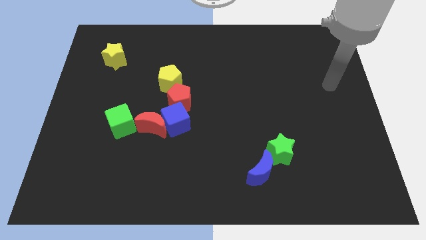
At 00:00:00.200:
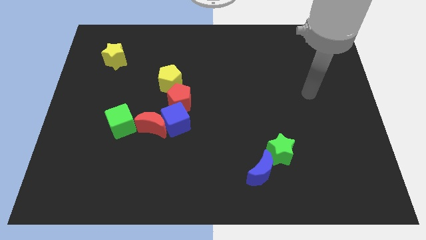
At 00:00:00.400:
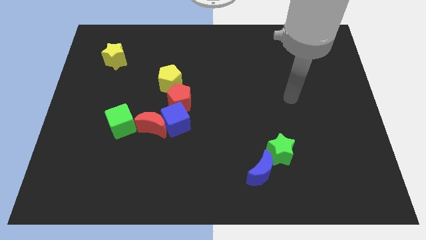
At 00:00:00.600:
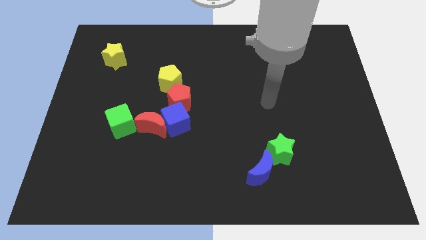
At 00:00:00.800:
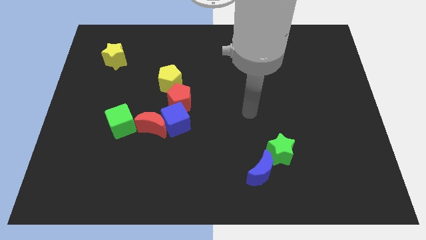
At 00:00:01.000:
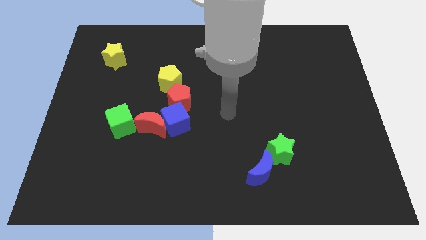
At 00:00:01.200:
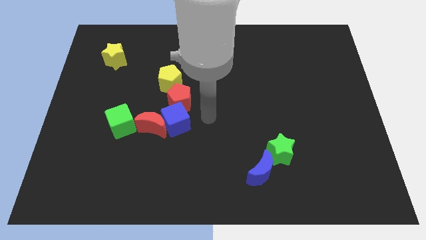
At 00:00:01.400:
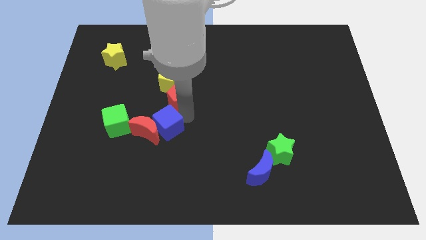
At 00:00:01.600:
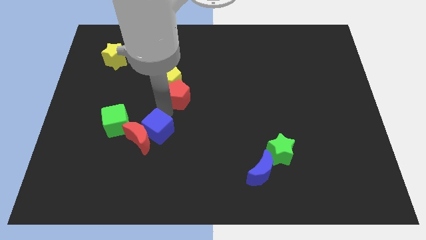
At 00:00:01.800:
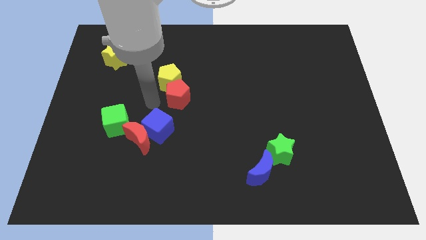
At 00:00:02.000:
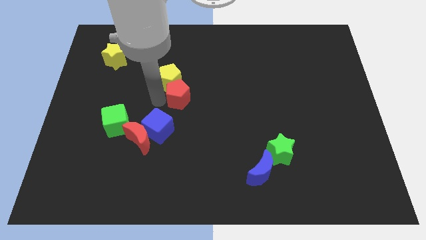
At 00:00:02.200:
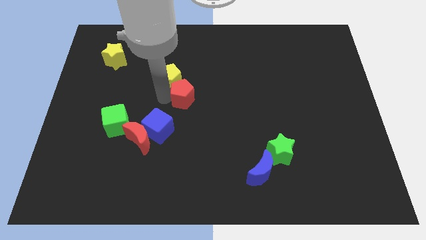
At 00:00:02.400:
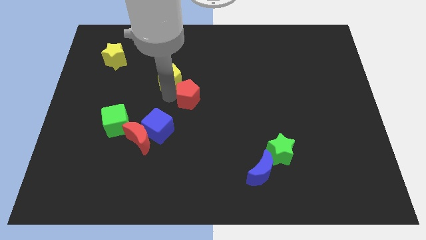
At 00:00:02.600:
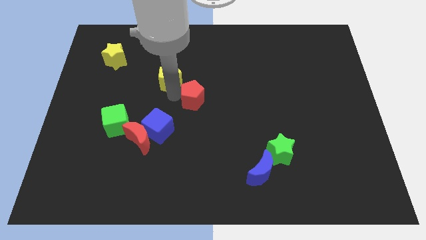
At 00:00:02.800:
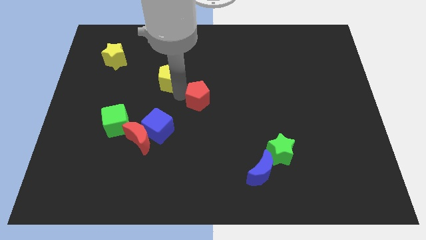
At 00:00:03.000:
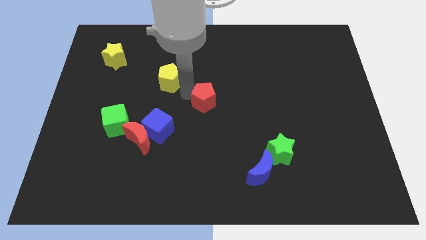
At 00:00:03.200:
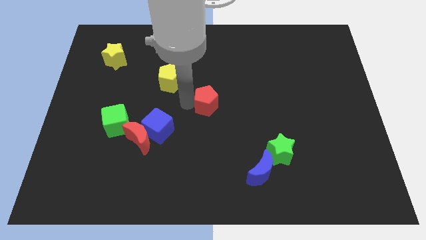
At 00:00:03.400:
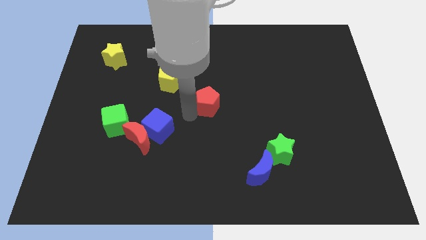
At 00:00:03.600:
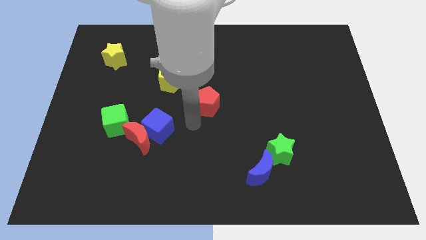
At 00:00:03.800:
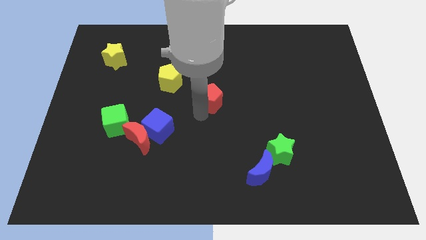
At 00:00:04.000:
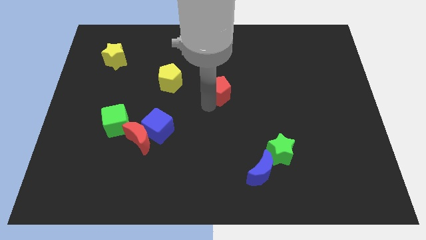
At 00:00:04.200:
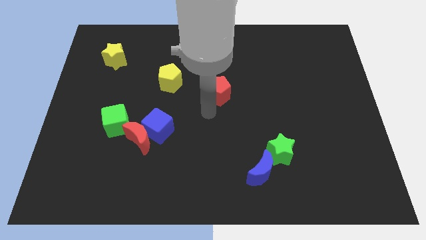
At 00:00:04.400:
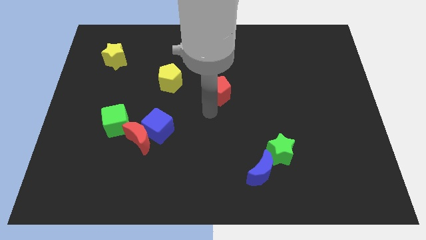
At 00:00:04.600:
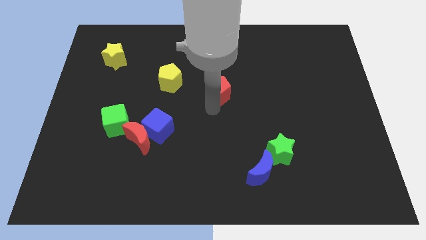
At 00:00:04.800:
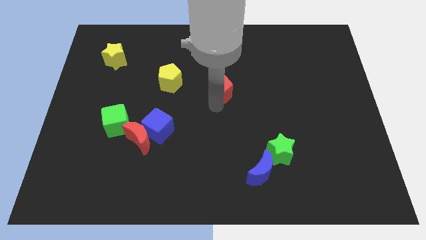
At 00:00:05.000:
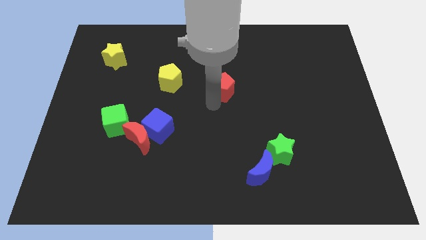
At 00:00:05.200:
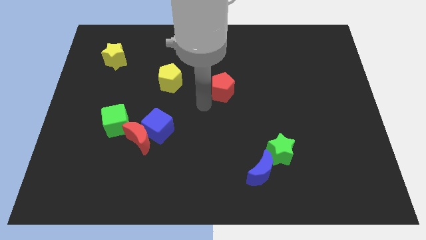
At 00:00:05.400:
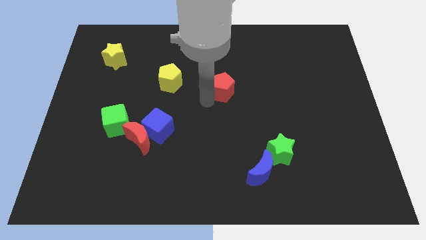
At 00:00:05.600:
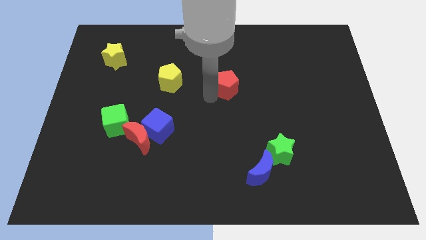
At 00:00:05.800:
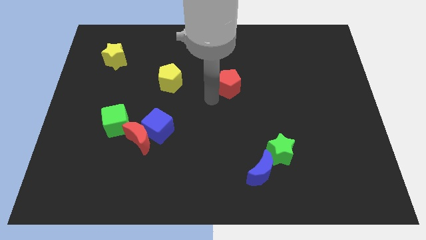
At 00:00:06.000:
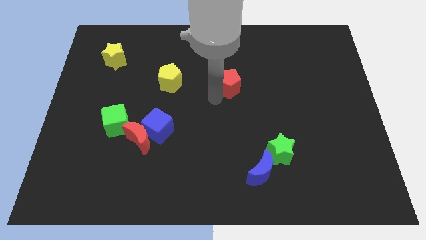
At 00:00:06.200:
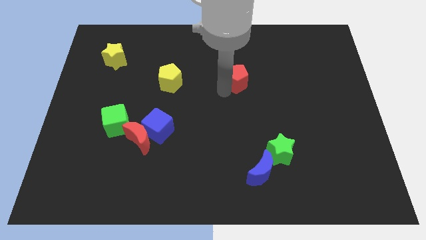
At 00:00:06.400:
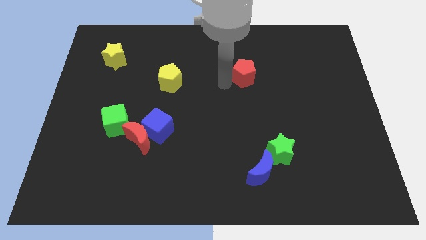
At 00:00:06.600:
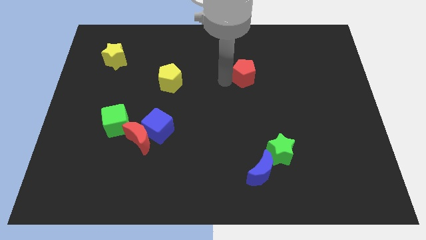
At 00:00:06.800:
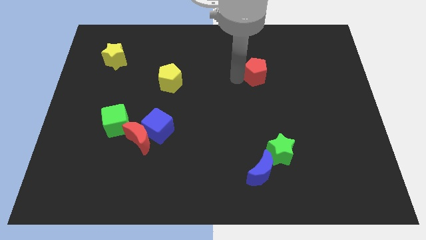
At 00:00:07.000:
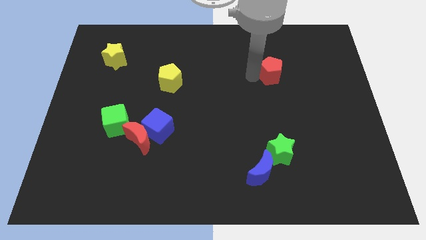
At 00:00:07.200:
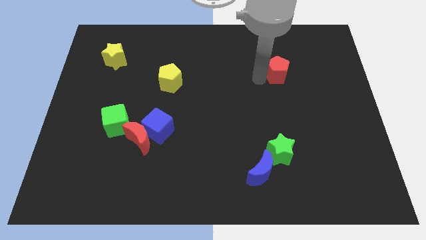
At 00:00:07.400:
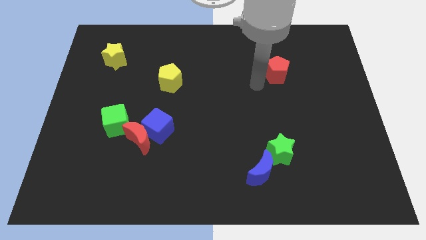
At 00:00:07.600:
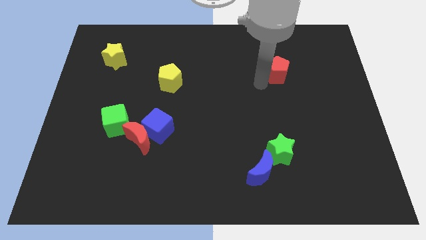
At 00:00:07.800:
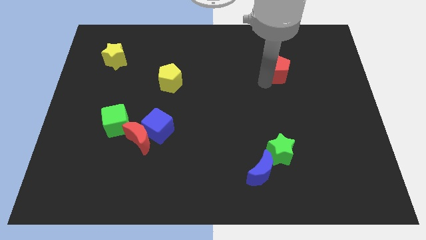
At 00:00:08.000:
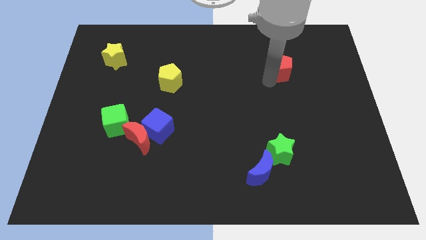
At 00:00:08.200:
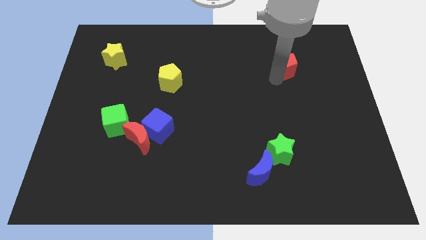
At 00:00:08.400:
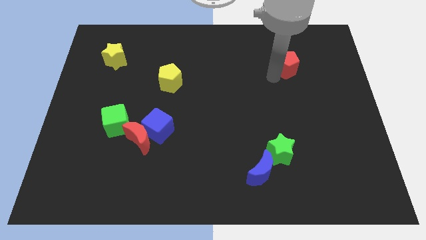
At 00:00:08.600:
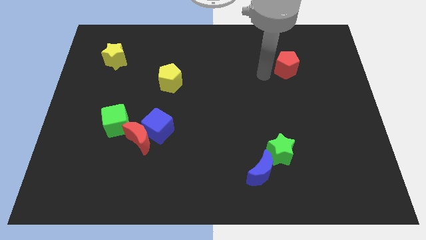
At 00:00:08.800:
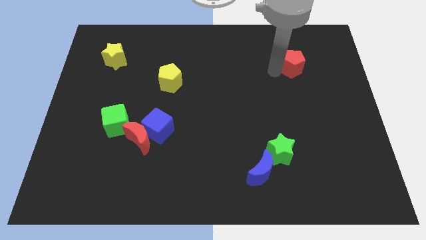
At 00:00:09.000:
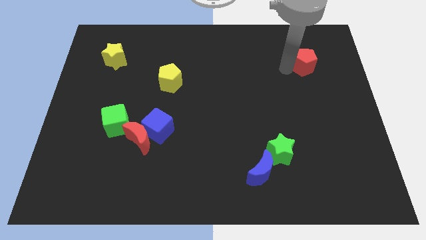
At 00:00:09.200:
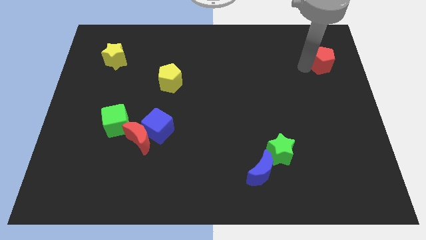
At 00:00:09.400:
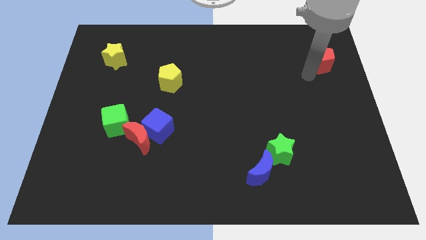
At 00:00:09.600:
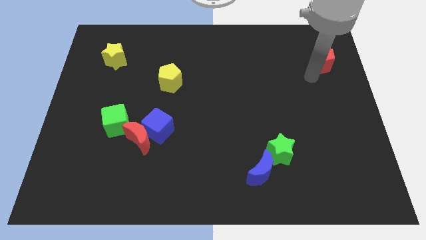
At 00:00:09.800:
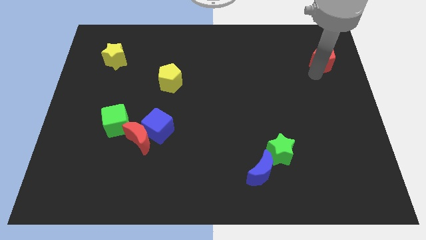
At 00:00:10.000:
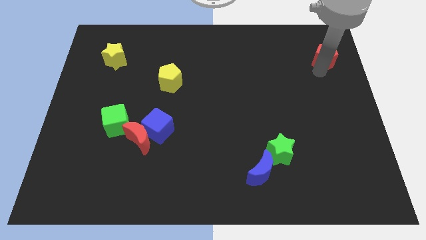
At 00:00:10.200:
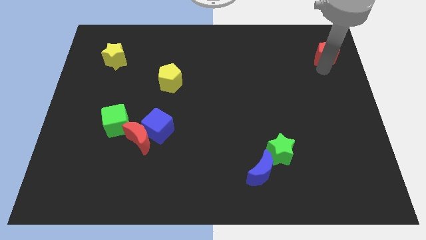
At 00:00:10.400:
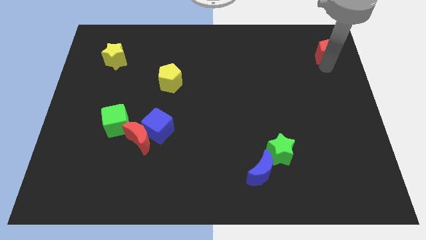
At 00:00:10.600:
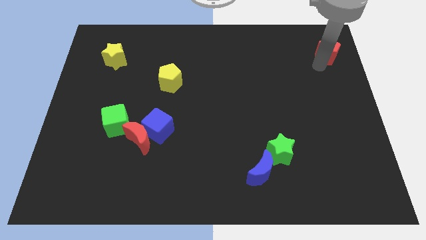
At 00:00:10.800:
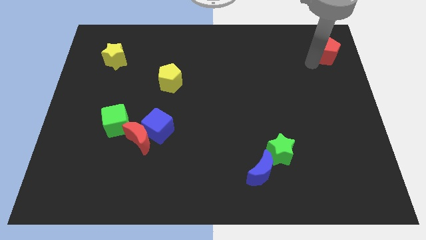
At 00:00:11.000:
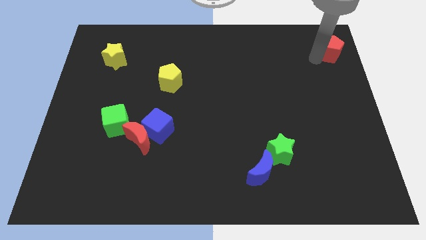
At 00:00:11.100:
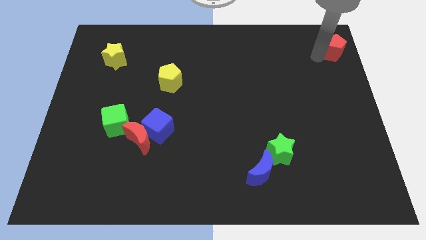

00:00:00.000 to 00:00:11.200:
put the red pentagon to the top right of the board
